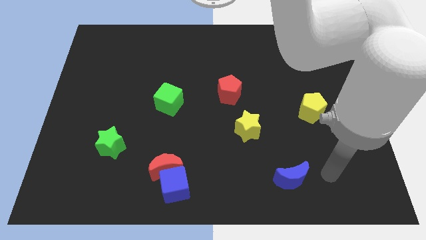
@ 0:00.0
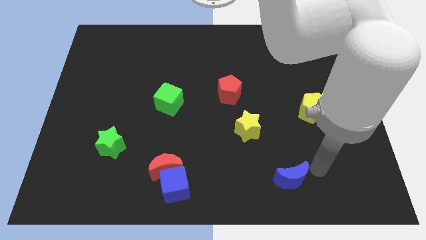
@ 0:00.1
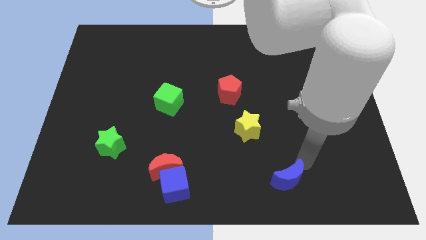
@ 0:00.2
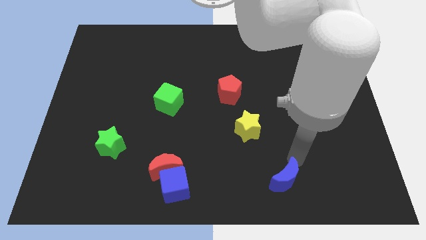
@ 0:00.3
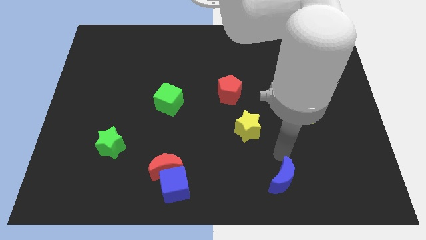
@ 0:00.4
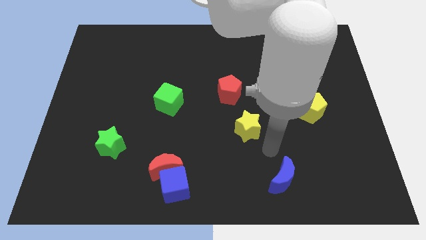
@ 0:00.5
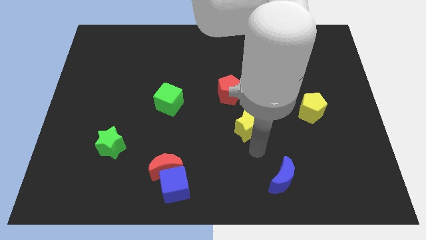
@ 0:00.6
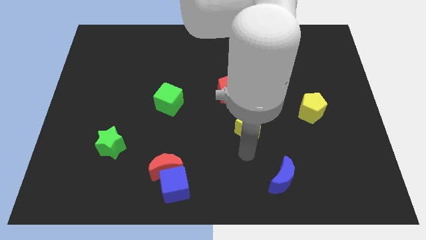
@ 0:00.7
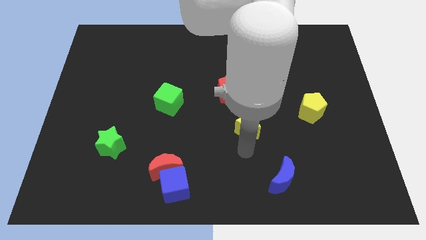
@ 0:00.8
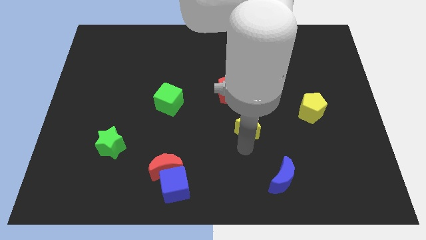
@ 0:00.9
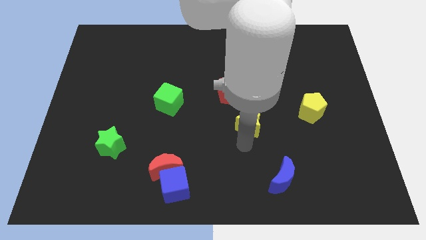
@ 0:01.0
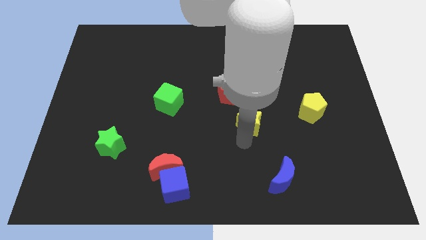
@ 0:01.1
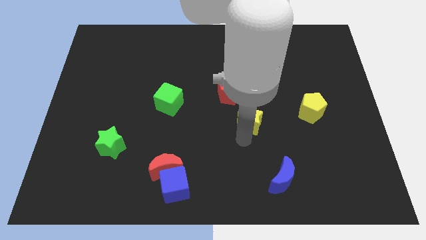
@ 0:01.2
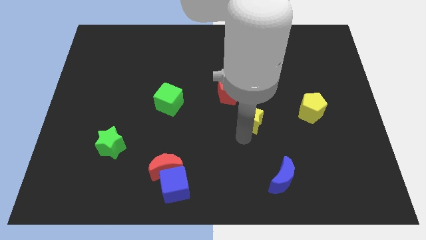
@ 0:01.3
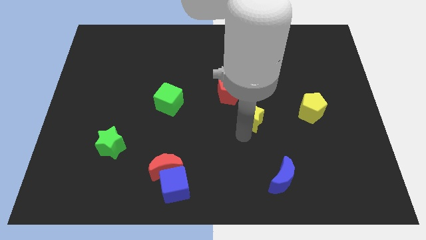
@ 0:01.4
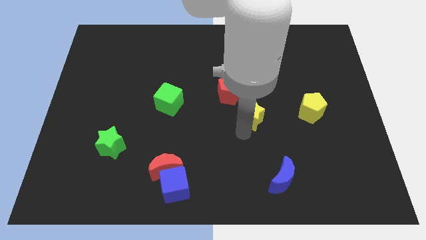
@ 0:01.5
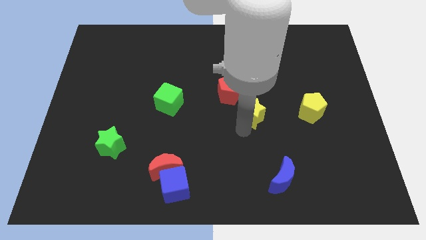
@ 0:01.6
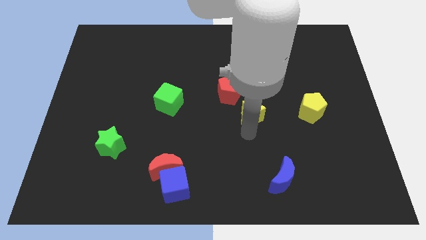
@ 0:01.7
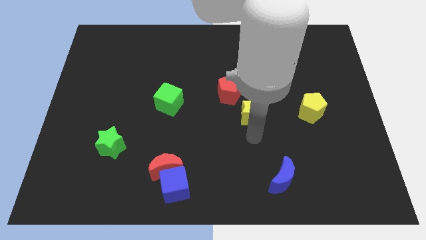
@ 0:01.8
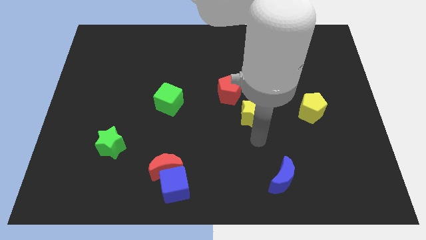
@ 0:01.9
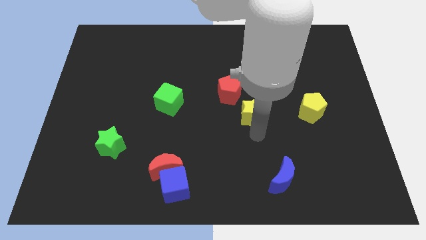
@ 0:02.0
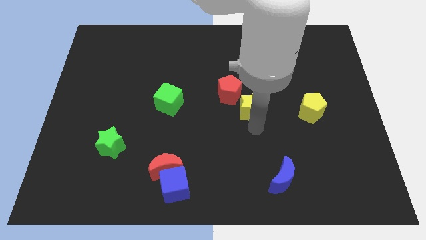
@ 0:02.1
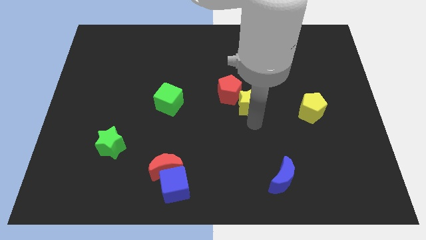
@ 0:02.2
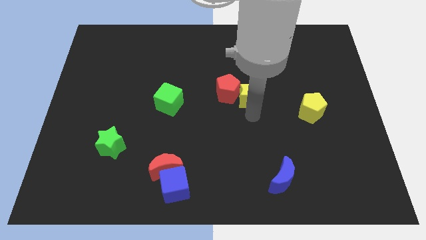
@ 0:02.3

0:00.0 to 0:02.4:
move the yellow star somewhat upwards

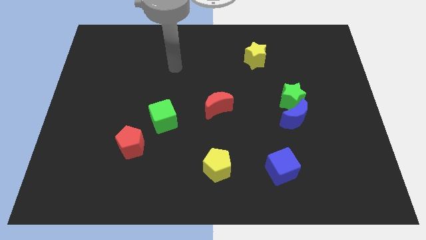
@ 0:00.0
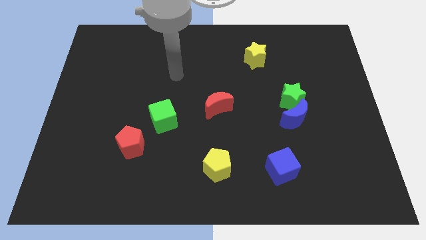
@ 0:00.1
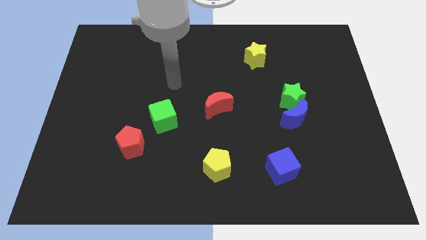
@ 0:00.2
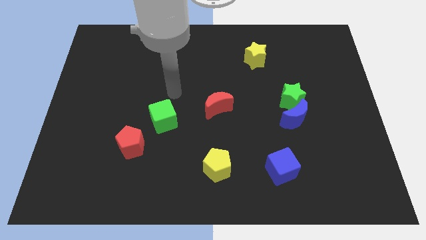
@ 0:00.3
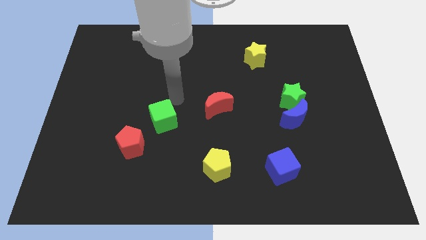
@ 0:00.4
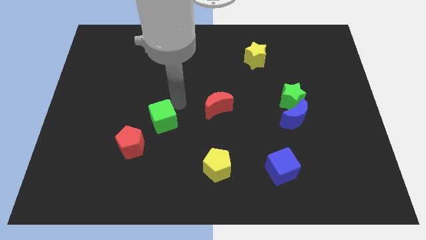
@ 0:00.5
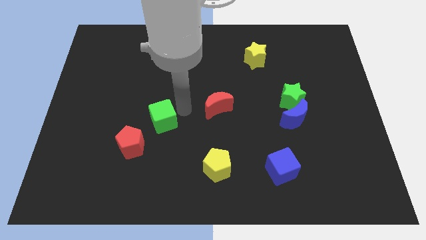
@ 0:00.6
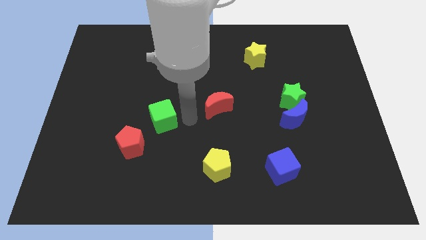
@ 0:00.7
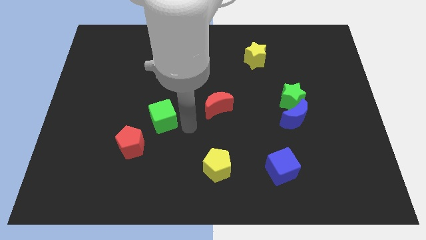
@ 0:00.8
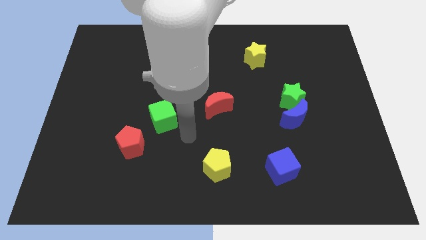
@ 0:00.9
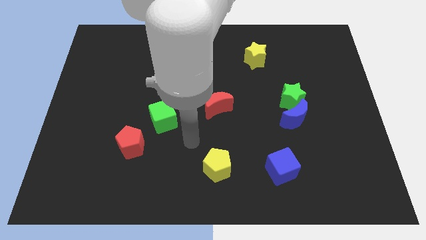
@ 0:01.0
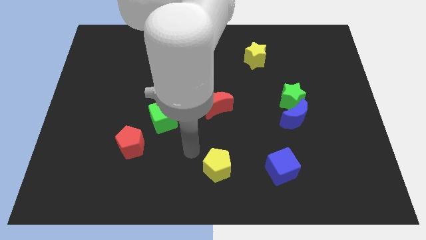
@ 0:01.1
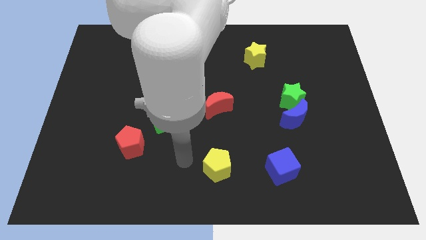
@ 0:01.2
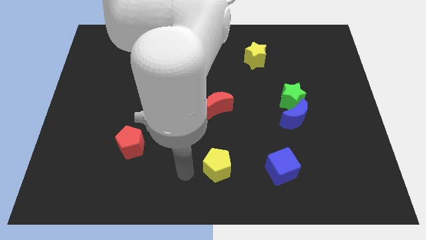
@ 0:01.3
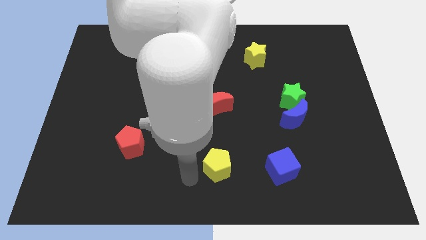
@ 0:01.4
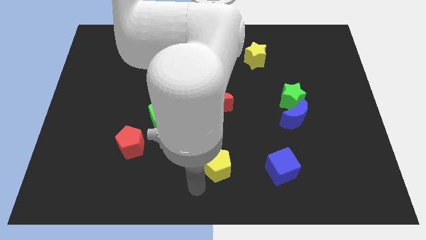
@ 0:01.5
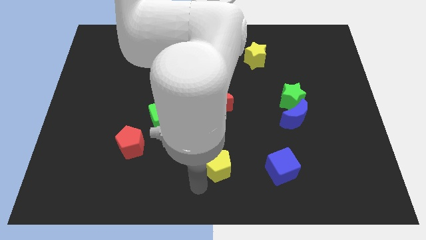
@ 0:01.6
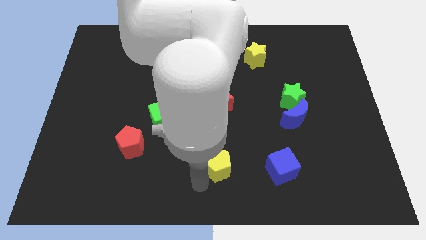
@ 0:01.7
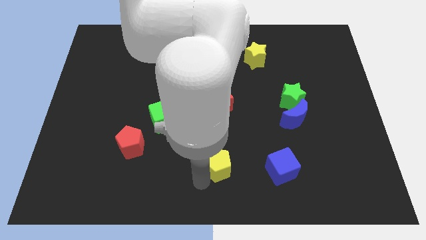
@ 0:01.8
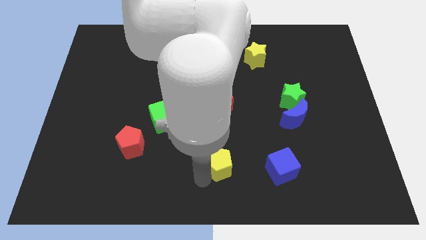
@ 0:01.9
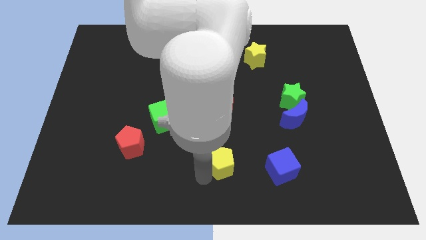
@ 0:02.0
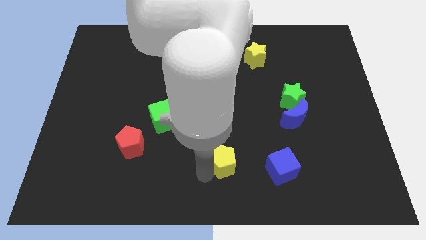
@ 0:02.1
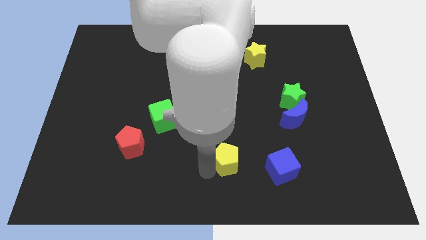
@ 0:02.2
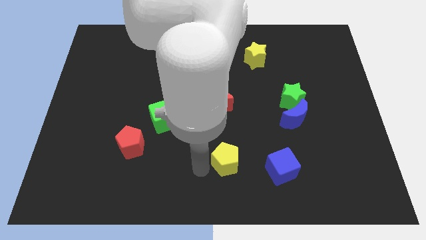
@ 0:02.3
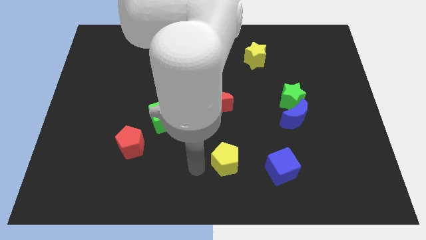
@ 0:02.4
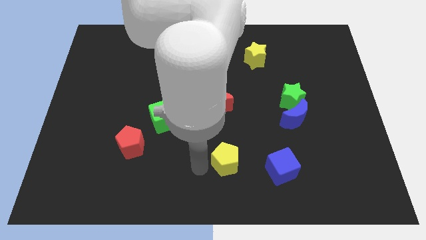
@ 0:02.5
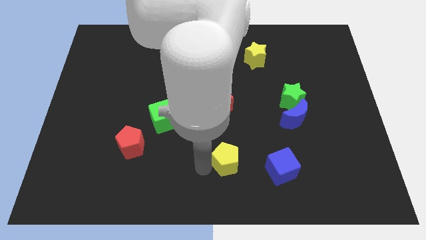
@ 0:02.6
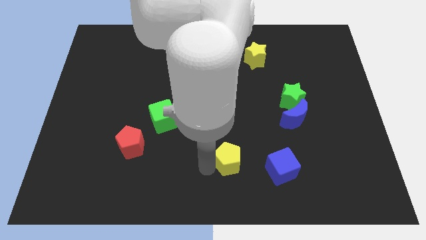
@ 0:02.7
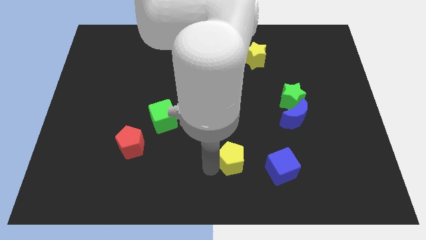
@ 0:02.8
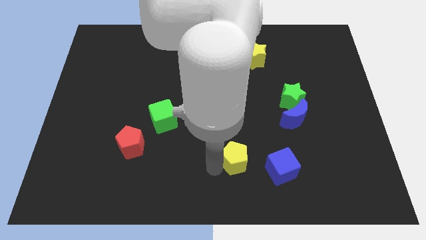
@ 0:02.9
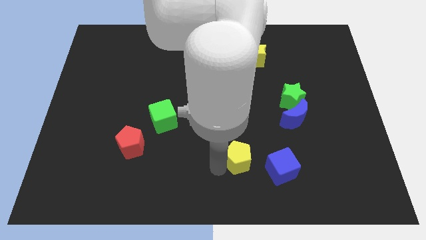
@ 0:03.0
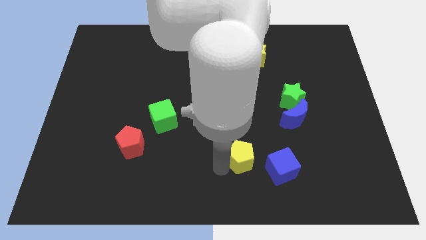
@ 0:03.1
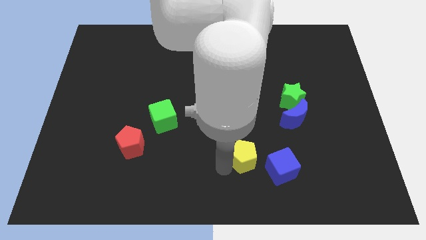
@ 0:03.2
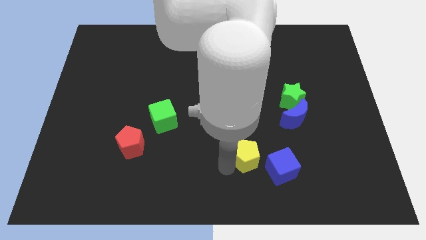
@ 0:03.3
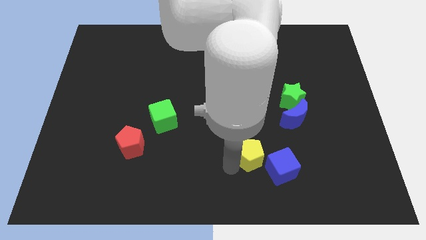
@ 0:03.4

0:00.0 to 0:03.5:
slightly slide the yellow pentagon right

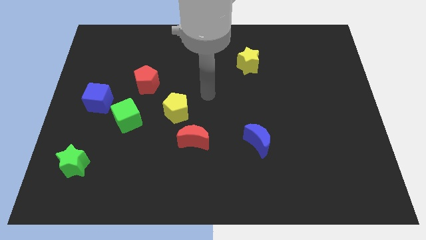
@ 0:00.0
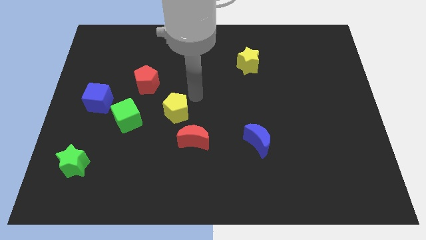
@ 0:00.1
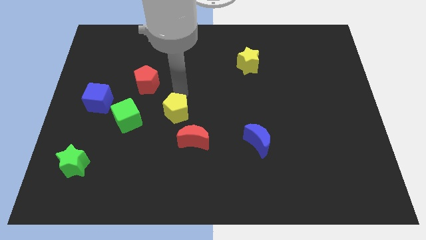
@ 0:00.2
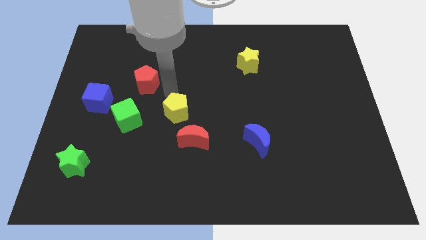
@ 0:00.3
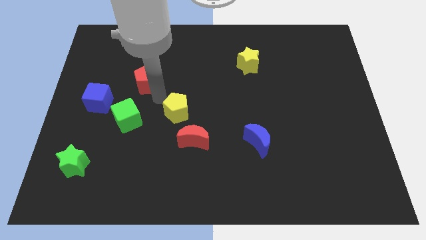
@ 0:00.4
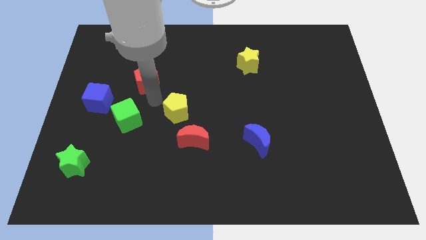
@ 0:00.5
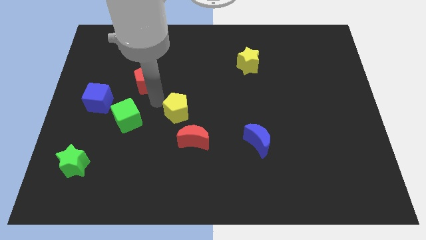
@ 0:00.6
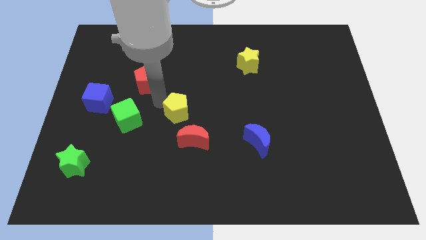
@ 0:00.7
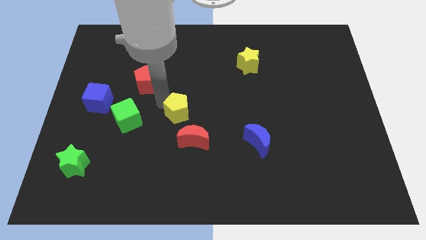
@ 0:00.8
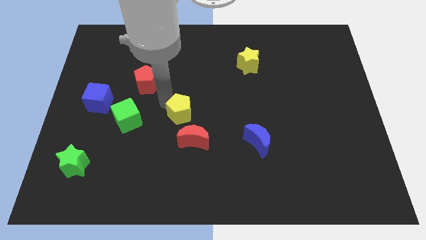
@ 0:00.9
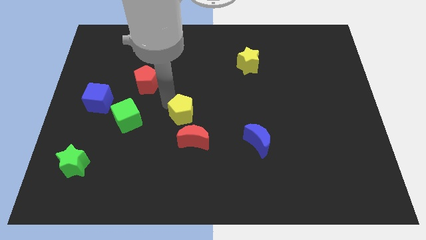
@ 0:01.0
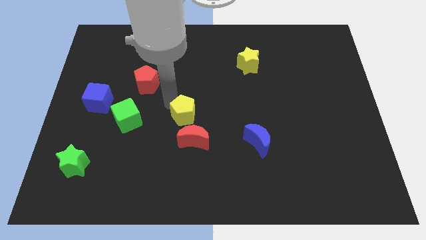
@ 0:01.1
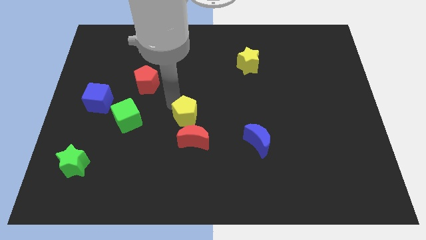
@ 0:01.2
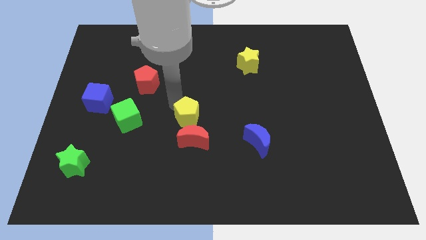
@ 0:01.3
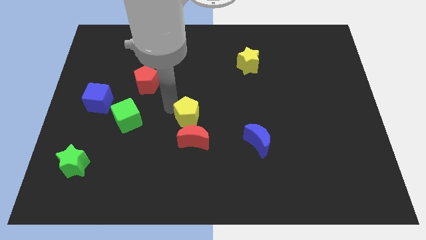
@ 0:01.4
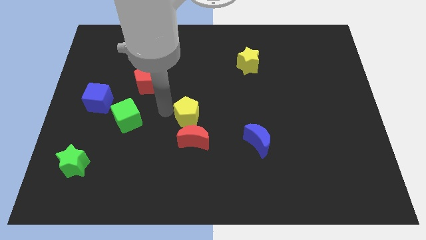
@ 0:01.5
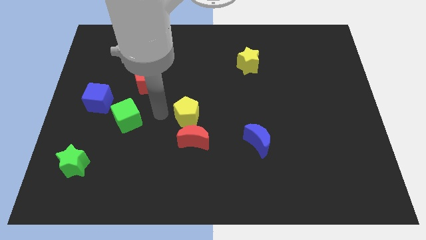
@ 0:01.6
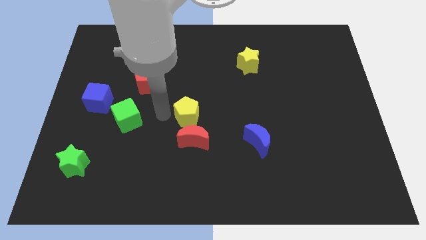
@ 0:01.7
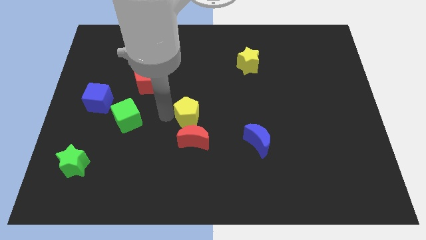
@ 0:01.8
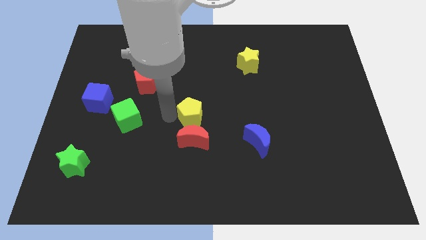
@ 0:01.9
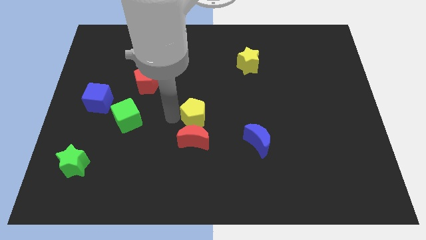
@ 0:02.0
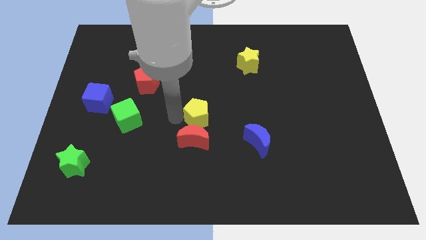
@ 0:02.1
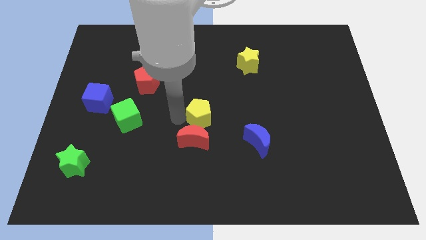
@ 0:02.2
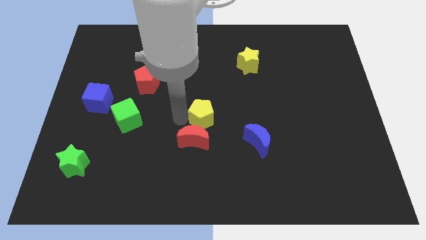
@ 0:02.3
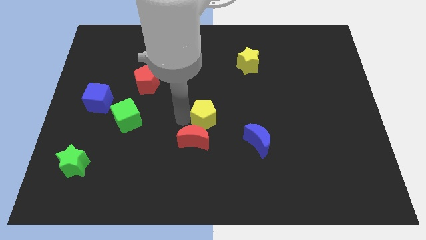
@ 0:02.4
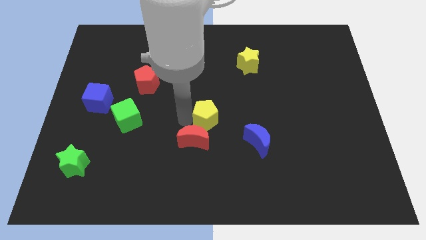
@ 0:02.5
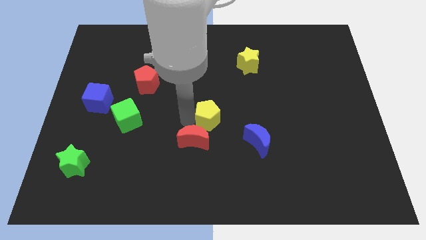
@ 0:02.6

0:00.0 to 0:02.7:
slide the yellow pentagon a bit to the right
